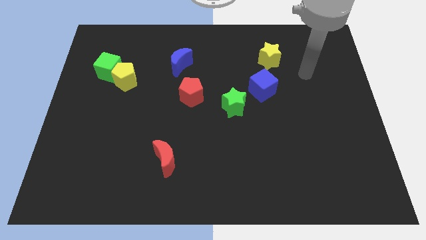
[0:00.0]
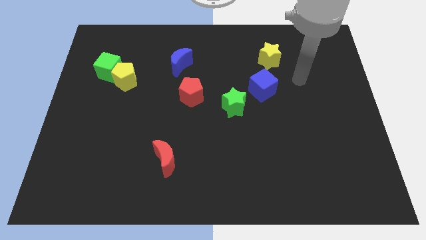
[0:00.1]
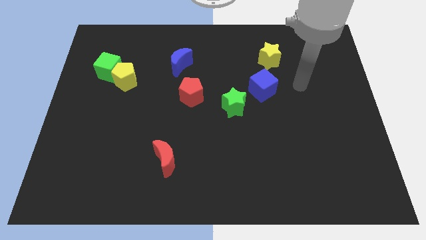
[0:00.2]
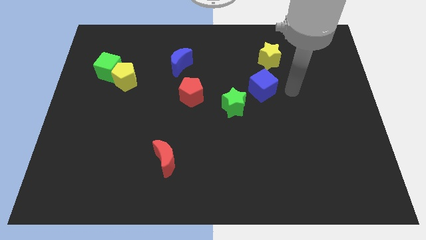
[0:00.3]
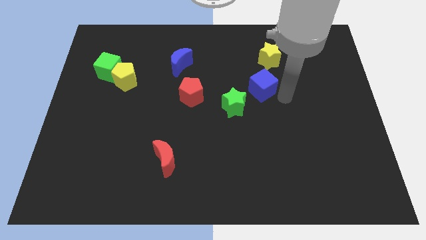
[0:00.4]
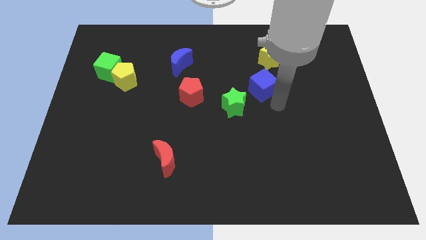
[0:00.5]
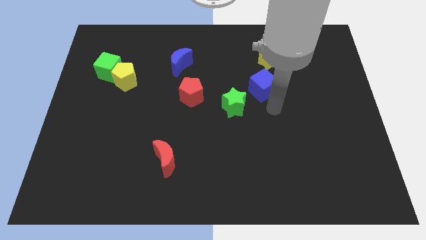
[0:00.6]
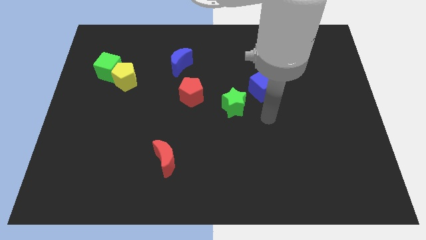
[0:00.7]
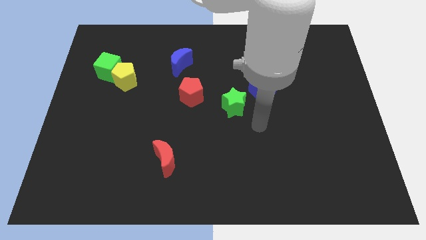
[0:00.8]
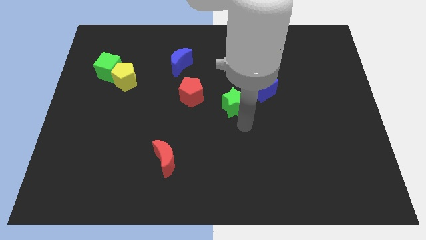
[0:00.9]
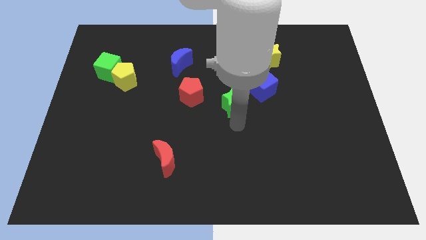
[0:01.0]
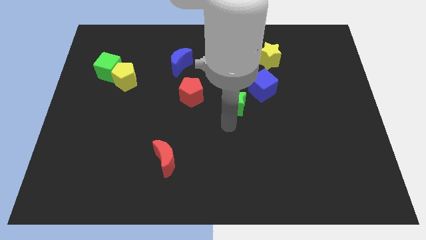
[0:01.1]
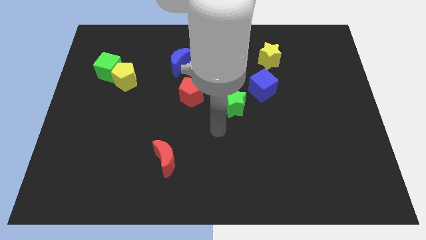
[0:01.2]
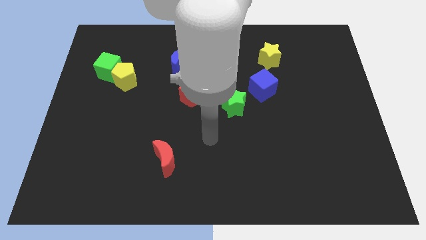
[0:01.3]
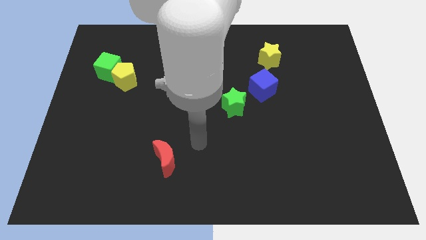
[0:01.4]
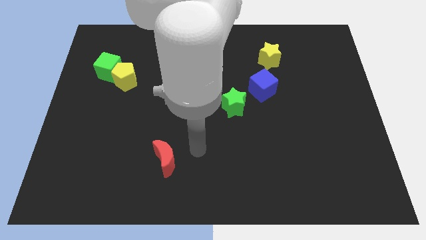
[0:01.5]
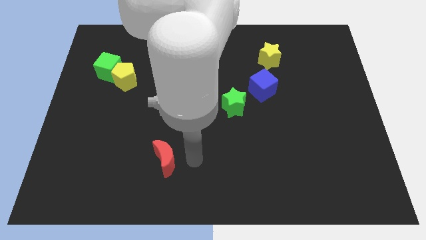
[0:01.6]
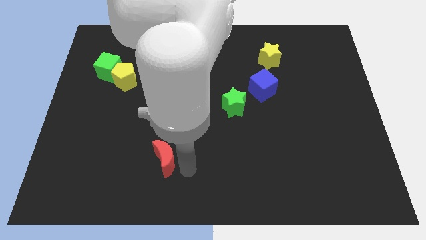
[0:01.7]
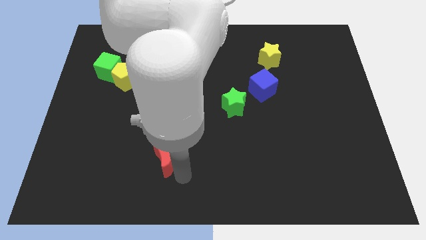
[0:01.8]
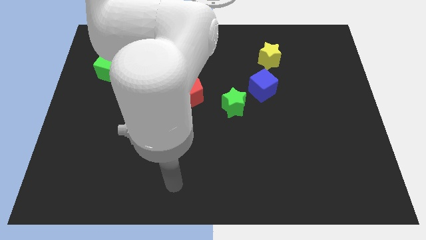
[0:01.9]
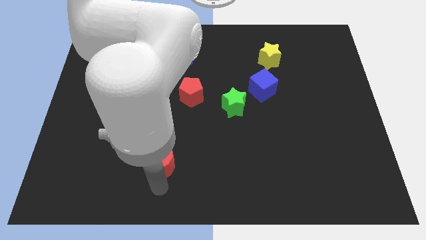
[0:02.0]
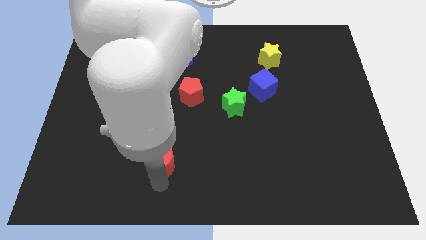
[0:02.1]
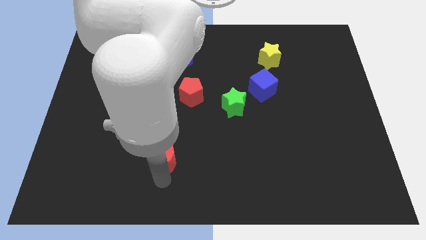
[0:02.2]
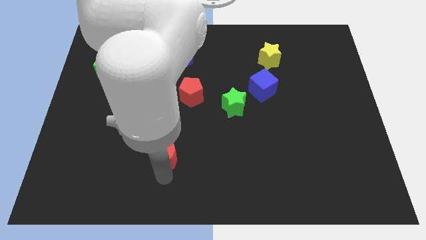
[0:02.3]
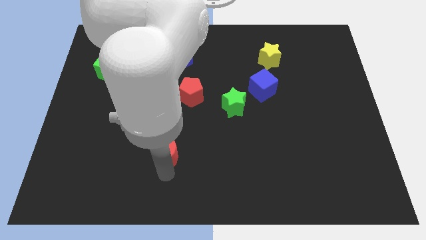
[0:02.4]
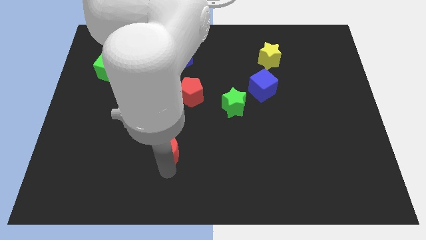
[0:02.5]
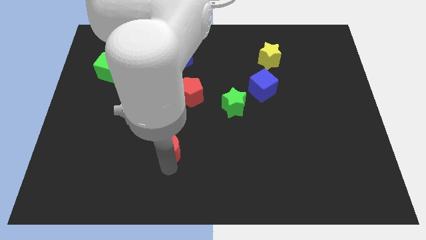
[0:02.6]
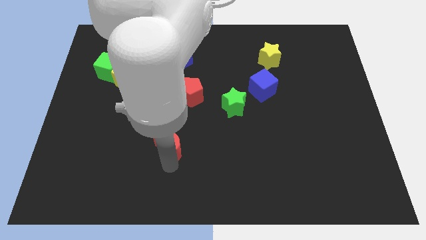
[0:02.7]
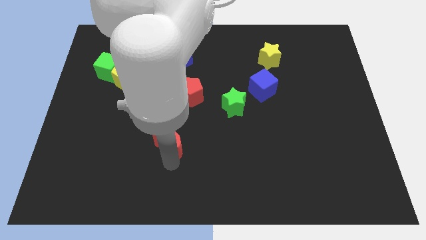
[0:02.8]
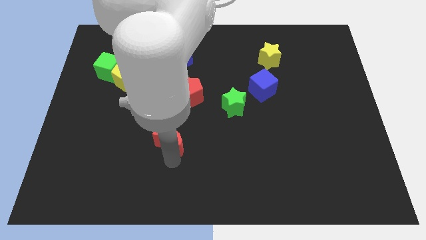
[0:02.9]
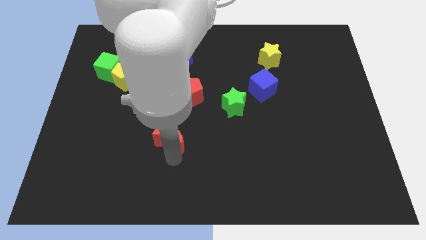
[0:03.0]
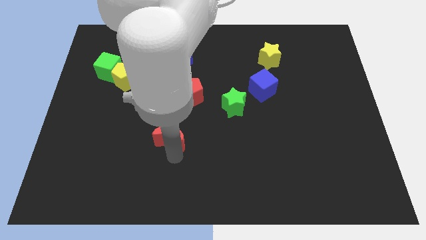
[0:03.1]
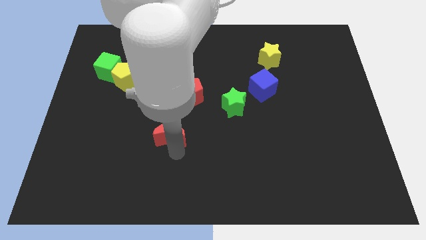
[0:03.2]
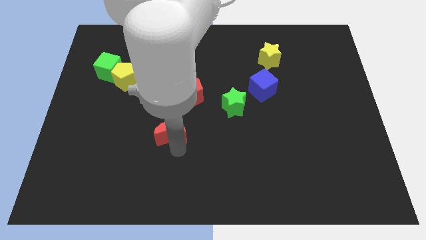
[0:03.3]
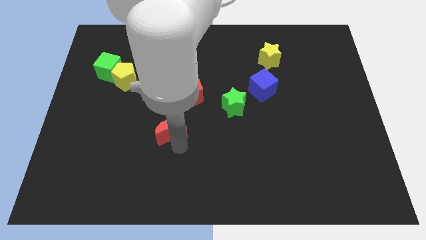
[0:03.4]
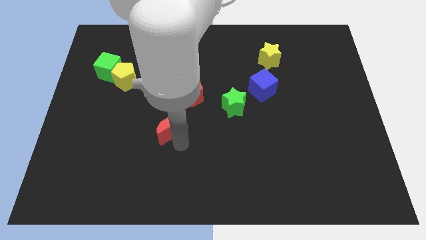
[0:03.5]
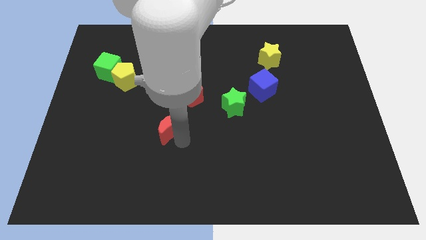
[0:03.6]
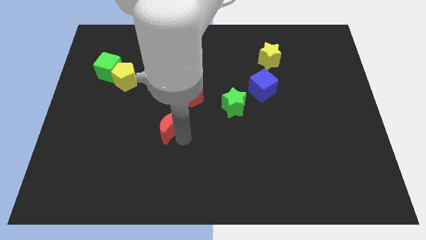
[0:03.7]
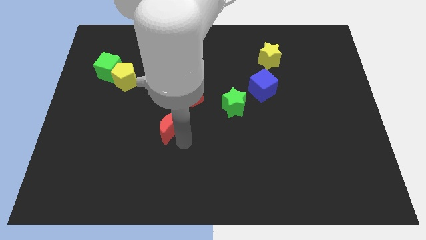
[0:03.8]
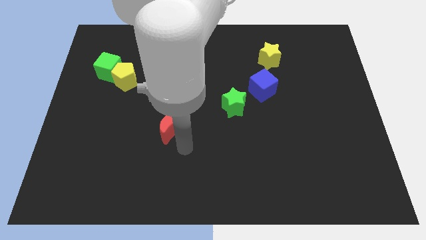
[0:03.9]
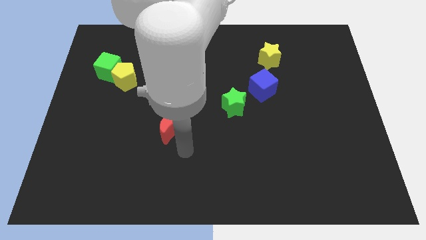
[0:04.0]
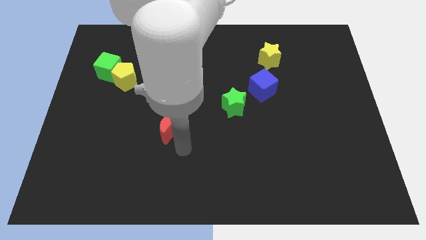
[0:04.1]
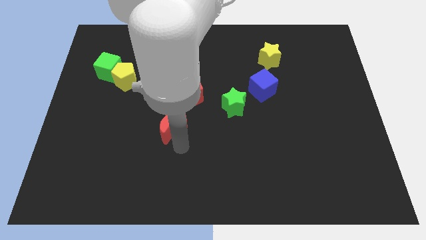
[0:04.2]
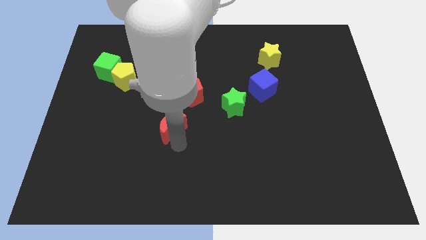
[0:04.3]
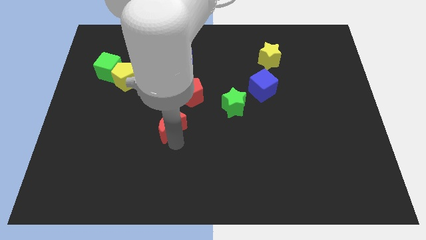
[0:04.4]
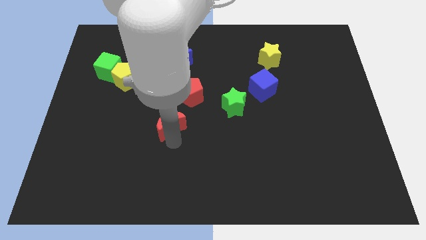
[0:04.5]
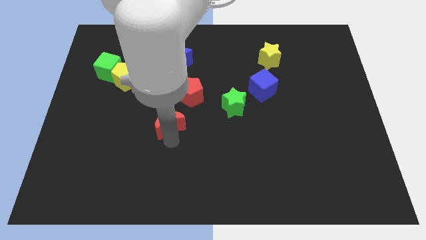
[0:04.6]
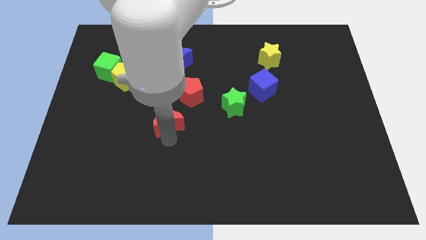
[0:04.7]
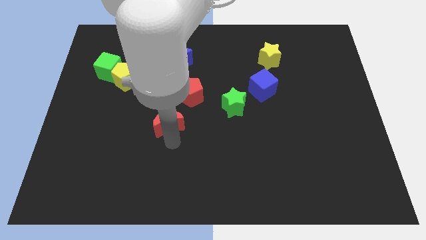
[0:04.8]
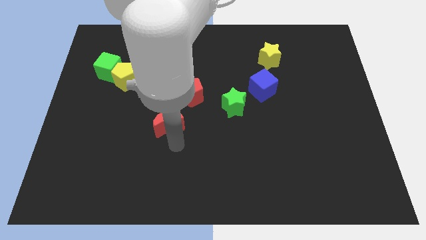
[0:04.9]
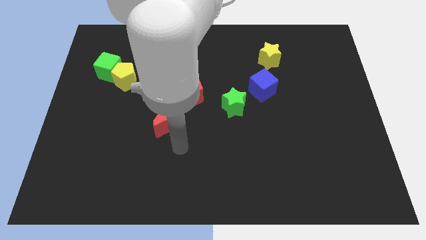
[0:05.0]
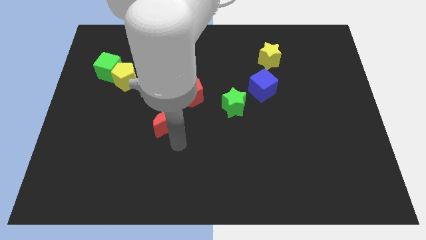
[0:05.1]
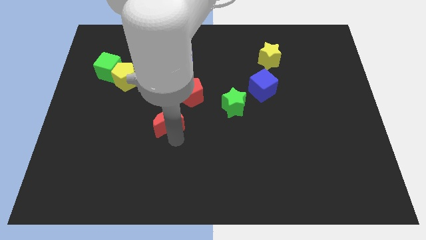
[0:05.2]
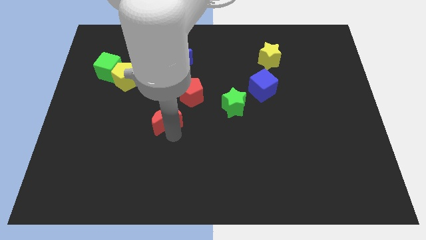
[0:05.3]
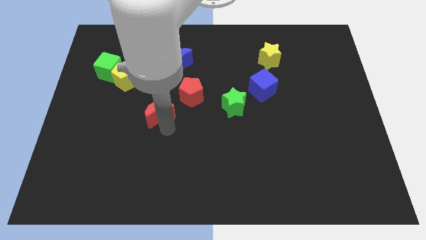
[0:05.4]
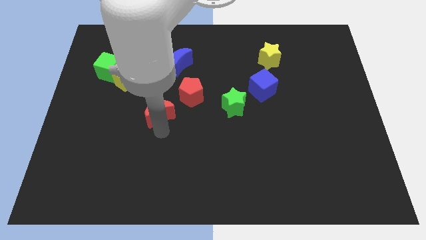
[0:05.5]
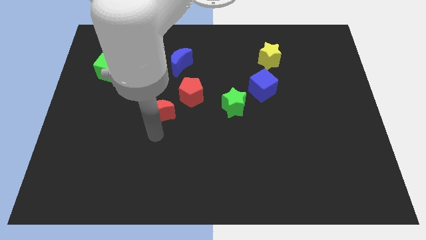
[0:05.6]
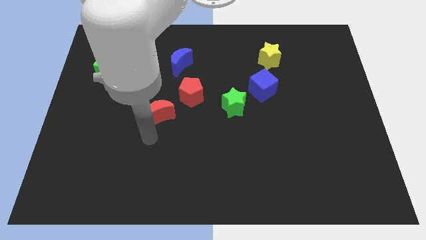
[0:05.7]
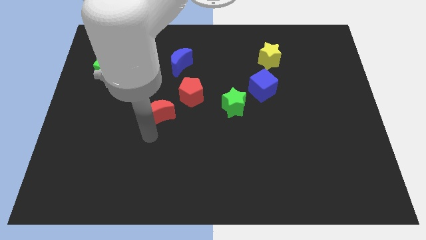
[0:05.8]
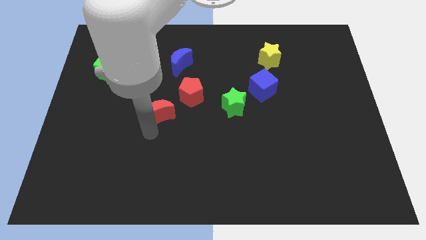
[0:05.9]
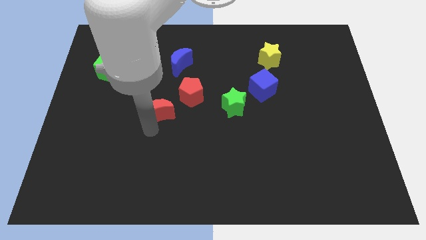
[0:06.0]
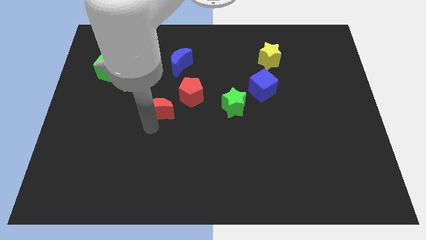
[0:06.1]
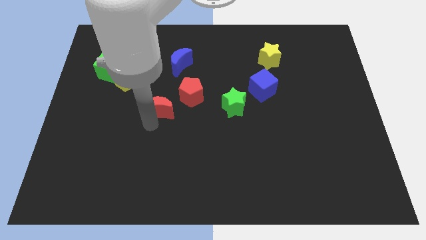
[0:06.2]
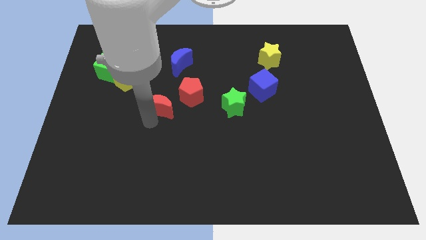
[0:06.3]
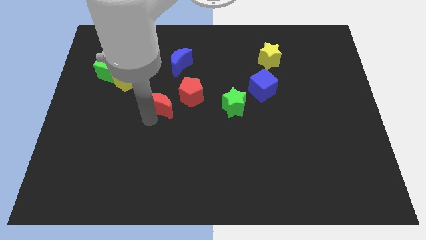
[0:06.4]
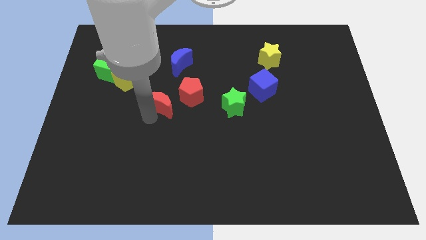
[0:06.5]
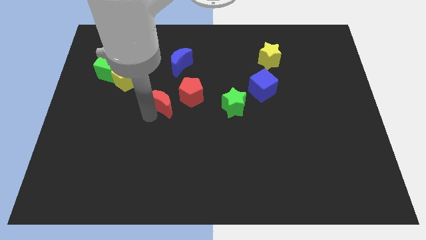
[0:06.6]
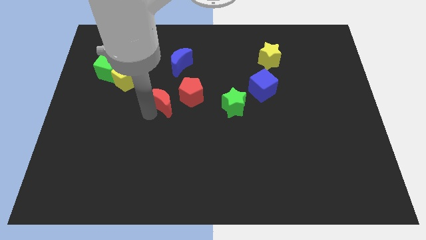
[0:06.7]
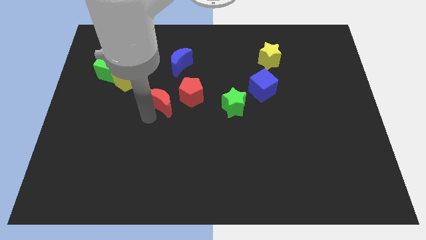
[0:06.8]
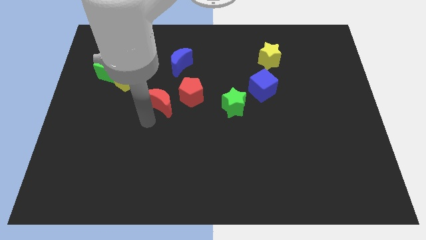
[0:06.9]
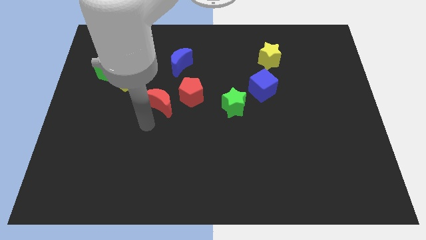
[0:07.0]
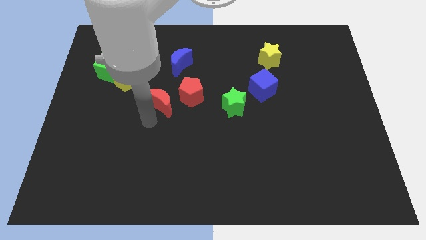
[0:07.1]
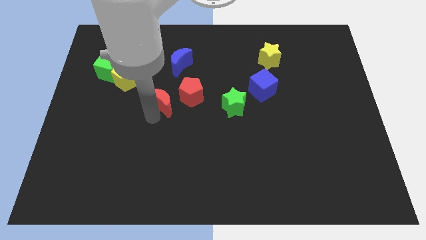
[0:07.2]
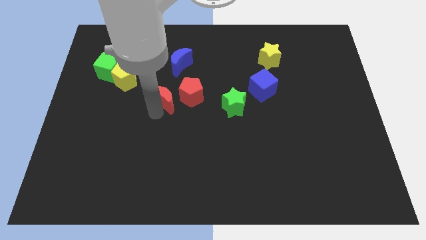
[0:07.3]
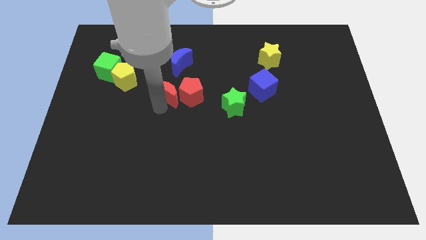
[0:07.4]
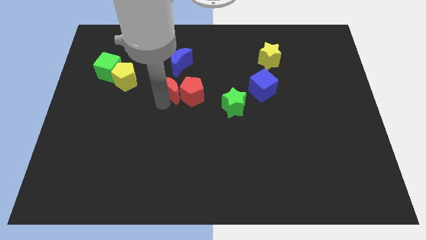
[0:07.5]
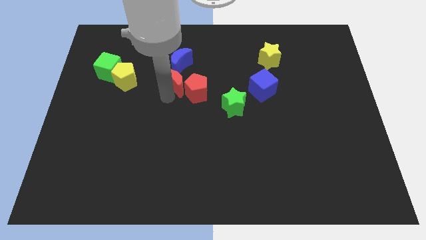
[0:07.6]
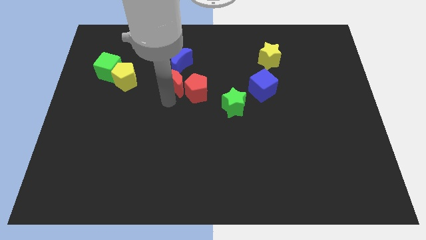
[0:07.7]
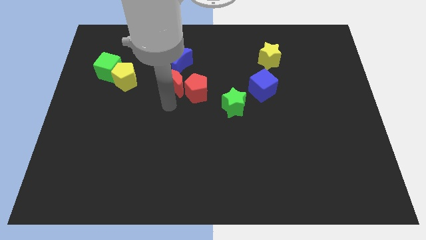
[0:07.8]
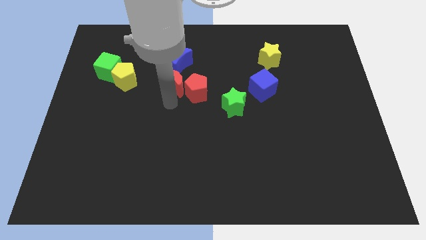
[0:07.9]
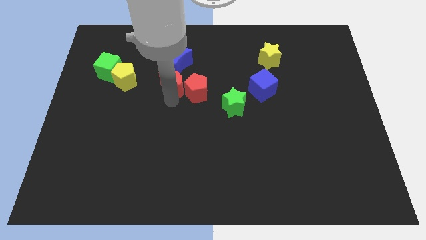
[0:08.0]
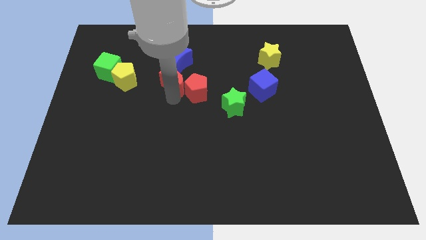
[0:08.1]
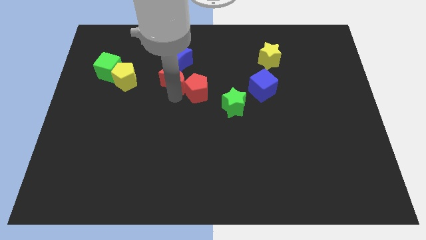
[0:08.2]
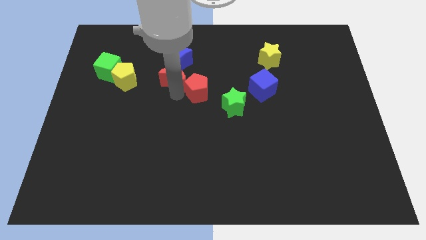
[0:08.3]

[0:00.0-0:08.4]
slide the red moon close to the blue moon
